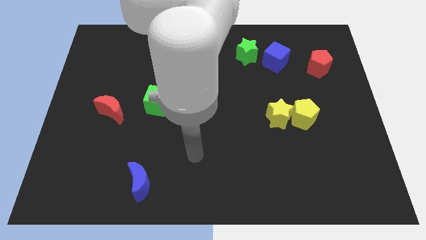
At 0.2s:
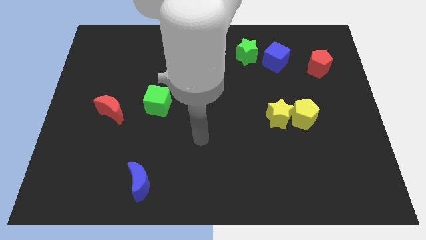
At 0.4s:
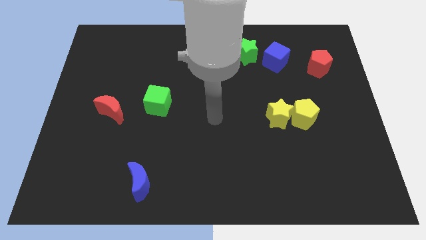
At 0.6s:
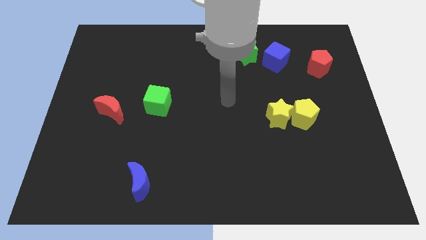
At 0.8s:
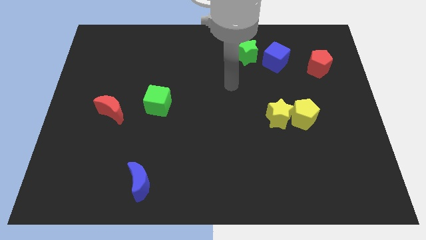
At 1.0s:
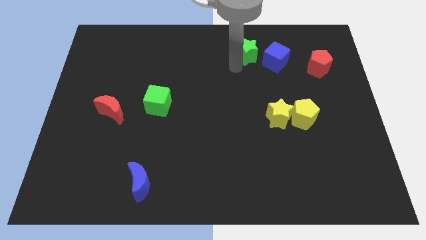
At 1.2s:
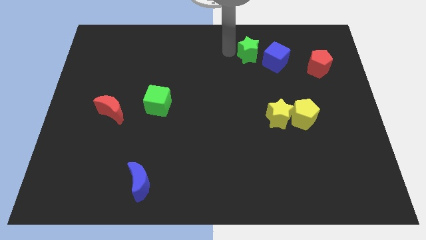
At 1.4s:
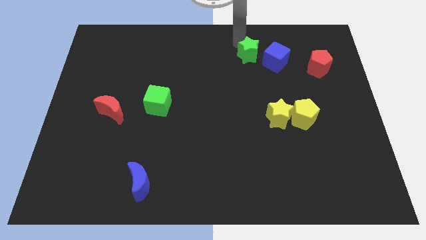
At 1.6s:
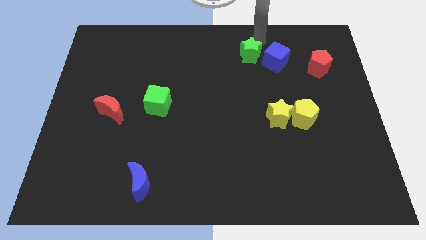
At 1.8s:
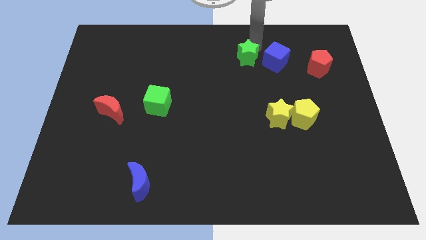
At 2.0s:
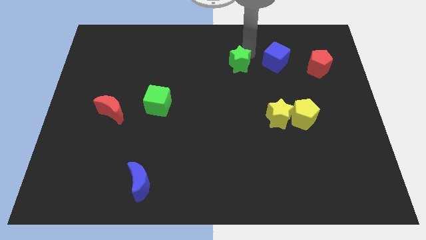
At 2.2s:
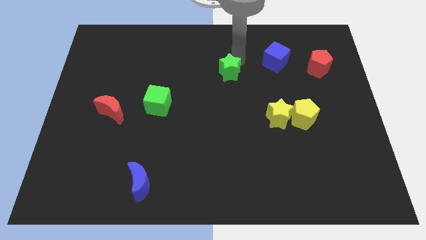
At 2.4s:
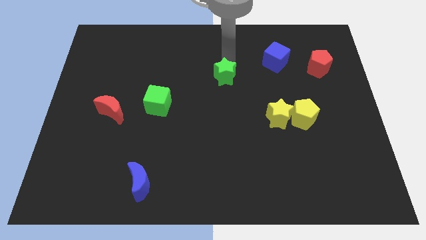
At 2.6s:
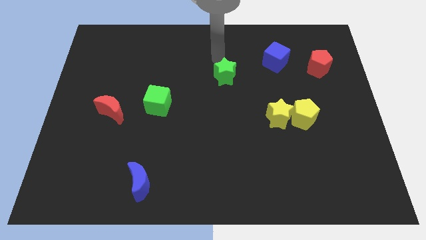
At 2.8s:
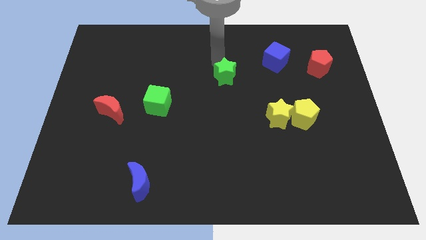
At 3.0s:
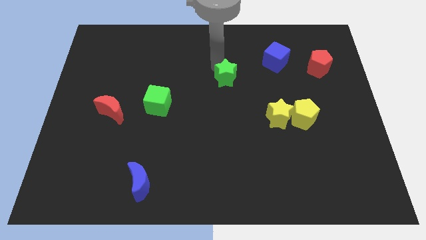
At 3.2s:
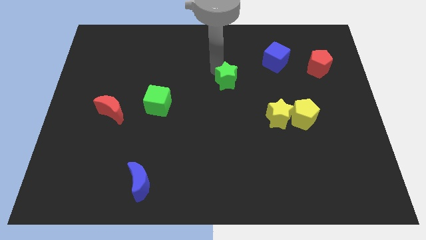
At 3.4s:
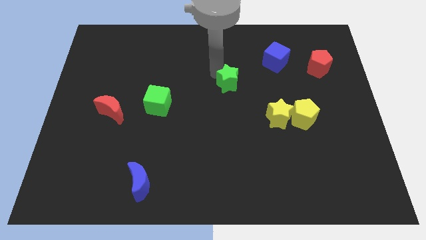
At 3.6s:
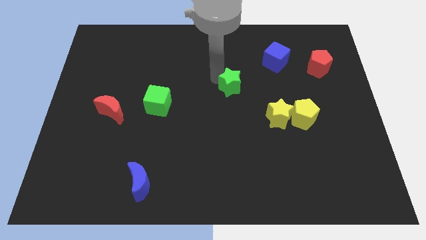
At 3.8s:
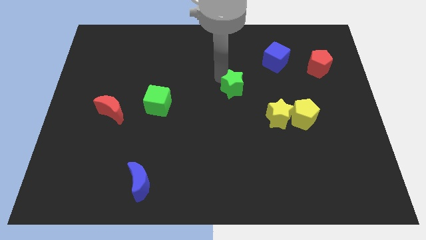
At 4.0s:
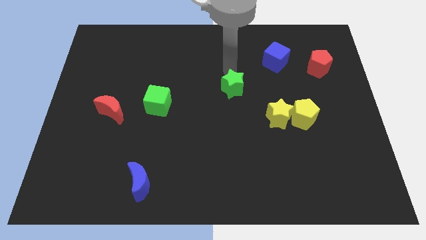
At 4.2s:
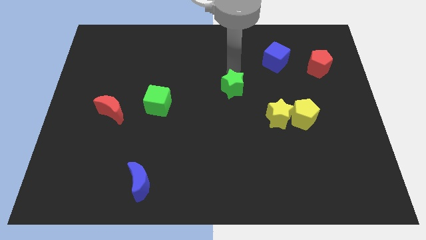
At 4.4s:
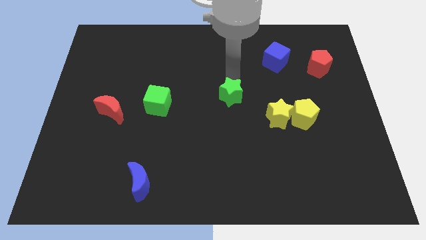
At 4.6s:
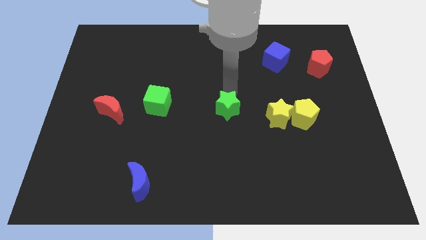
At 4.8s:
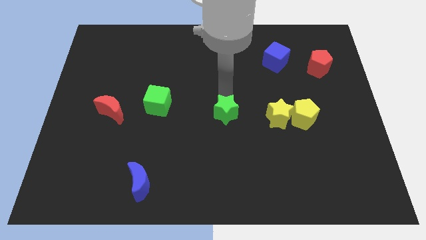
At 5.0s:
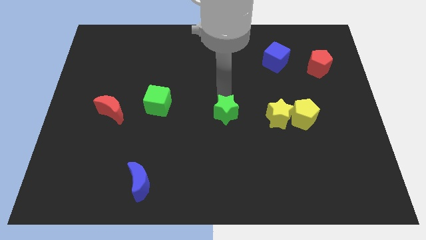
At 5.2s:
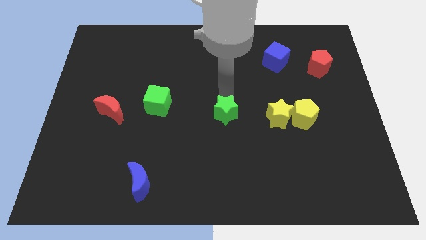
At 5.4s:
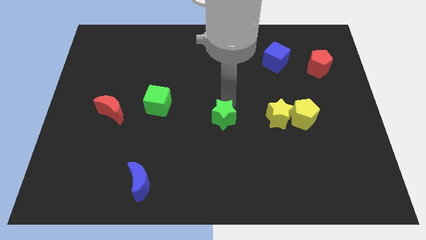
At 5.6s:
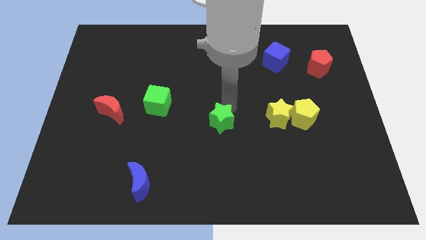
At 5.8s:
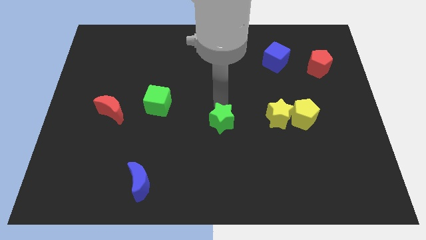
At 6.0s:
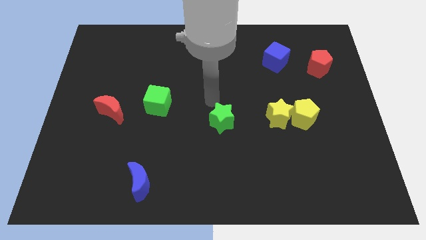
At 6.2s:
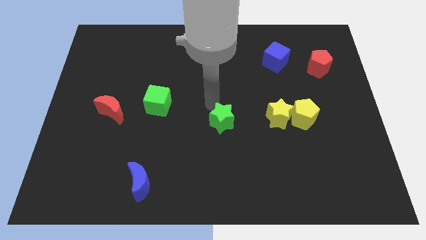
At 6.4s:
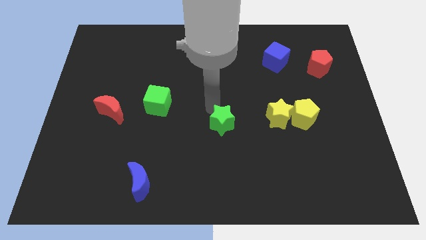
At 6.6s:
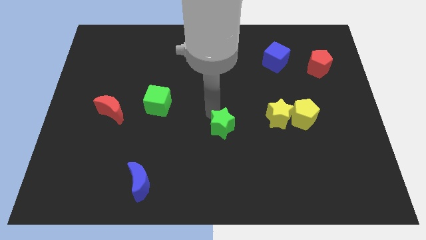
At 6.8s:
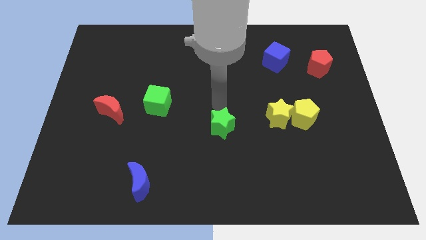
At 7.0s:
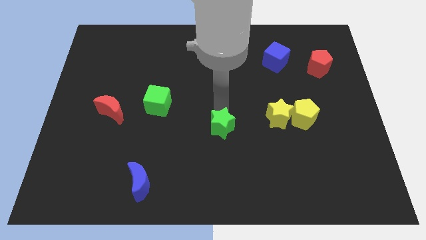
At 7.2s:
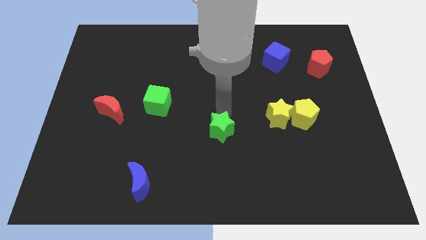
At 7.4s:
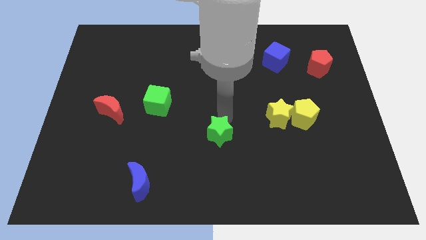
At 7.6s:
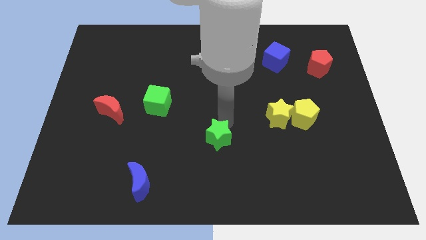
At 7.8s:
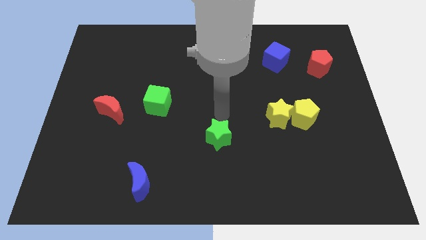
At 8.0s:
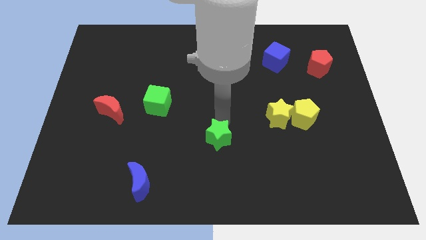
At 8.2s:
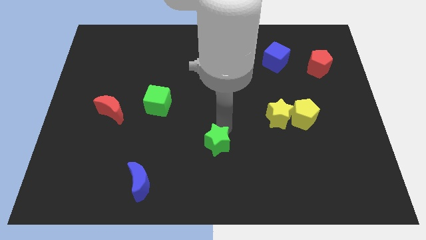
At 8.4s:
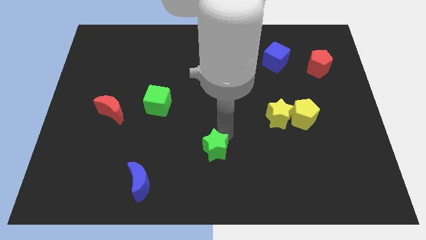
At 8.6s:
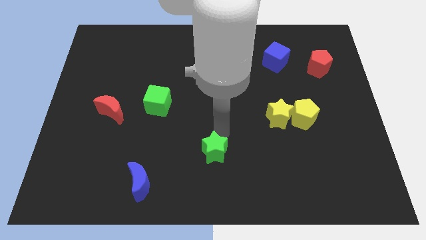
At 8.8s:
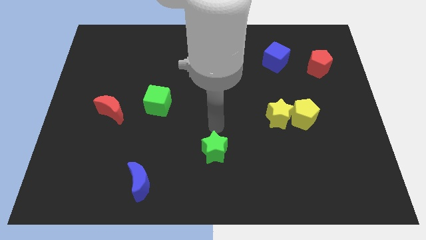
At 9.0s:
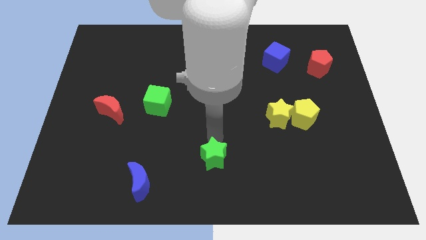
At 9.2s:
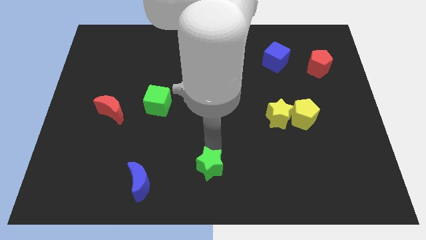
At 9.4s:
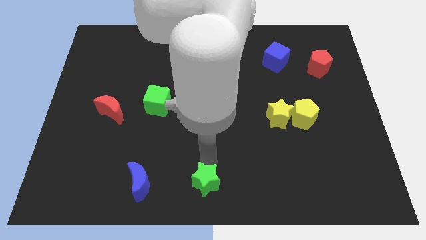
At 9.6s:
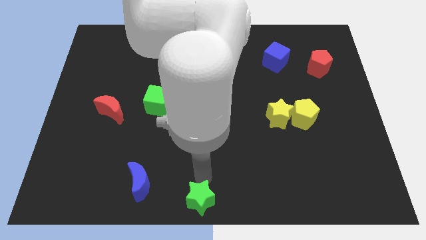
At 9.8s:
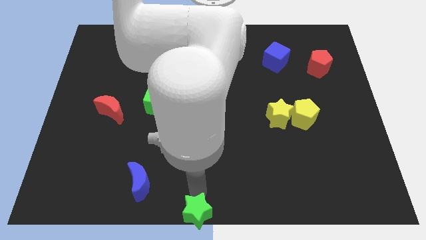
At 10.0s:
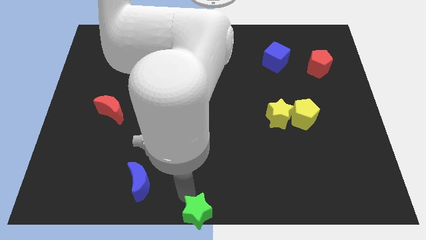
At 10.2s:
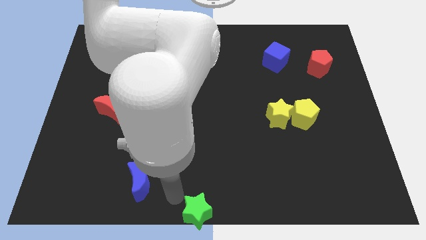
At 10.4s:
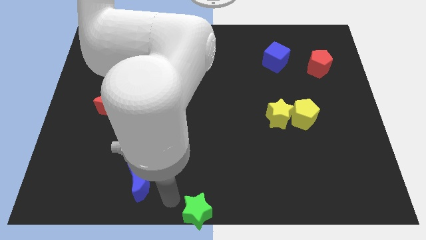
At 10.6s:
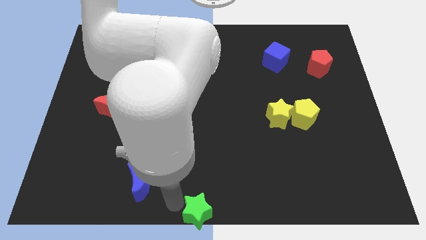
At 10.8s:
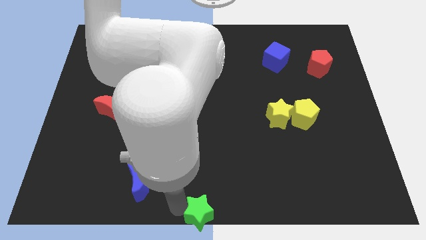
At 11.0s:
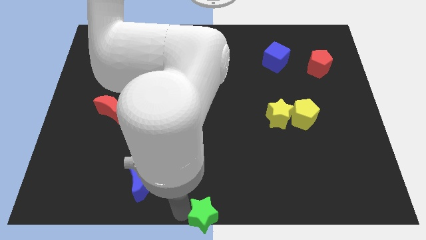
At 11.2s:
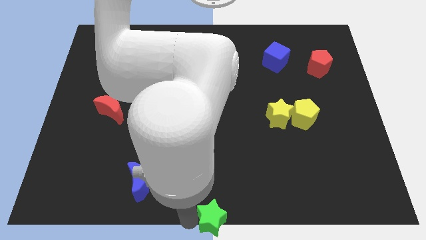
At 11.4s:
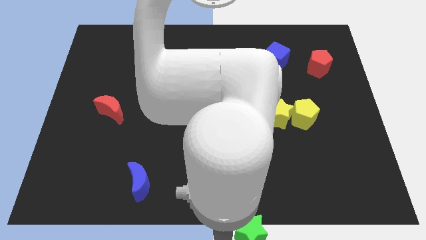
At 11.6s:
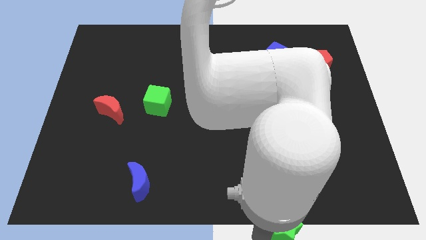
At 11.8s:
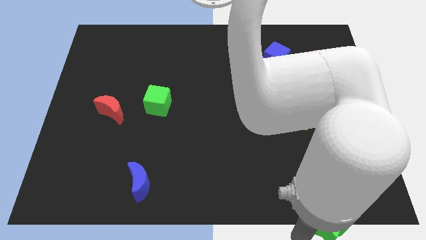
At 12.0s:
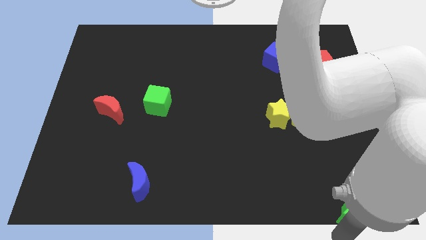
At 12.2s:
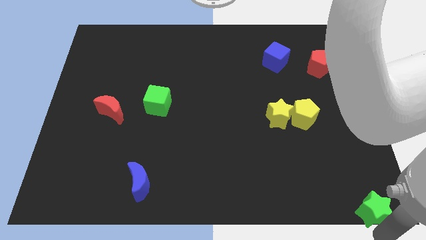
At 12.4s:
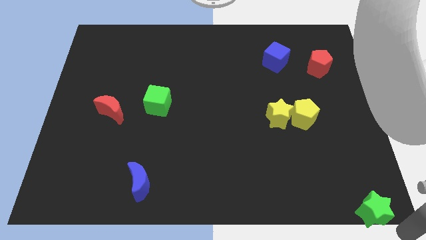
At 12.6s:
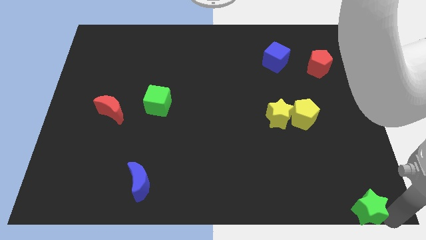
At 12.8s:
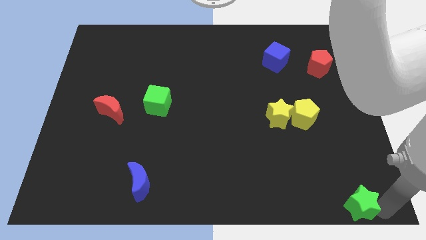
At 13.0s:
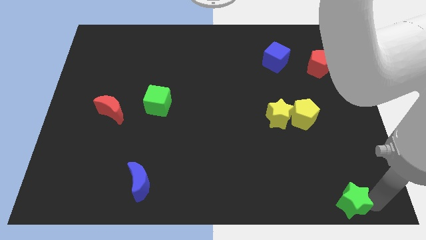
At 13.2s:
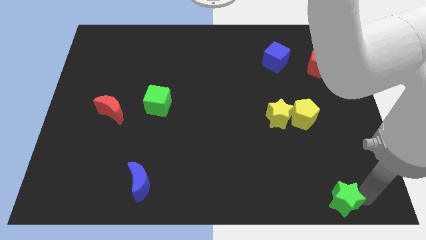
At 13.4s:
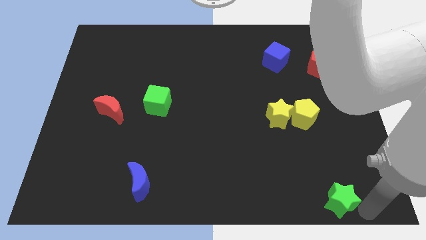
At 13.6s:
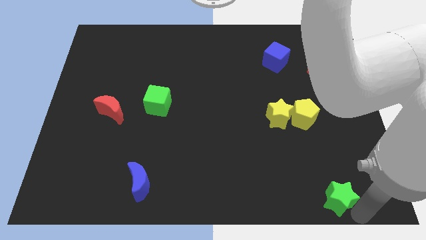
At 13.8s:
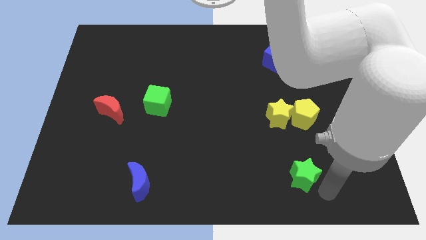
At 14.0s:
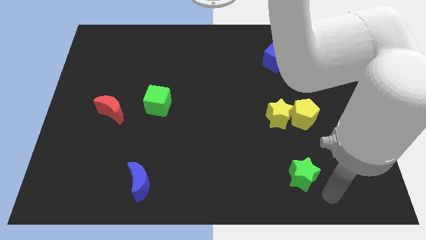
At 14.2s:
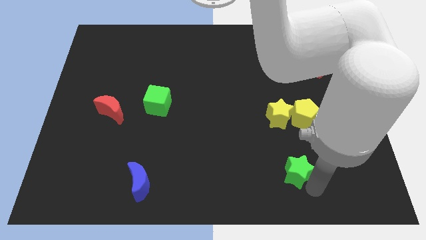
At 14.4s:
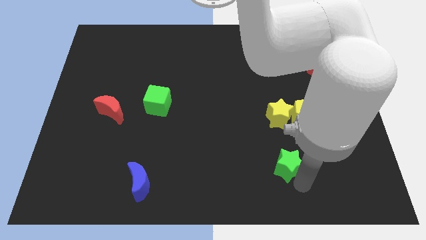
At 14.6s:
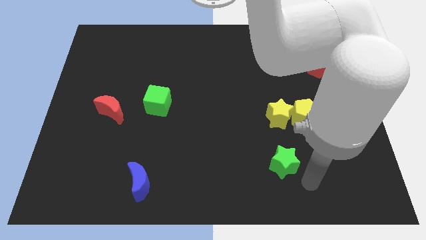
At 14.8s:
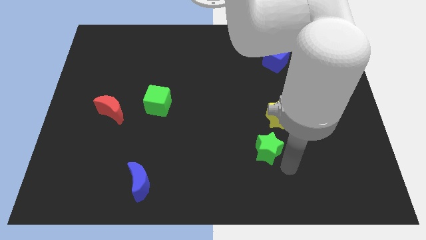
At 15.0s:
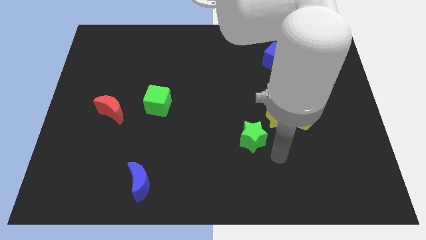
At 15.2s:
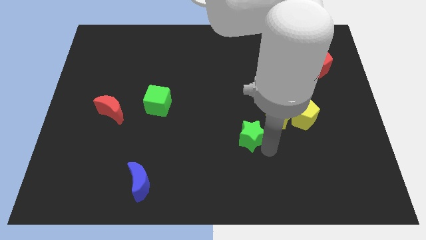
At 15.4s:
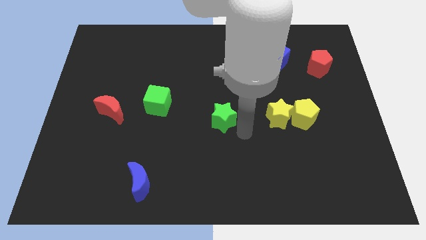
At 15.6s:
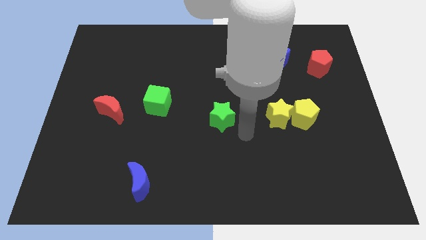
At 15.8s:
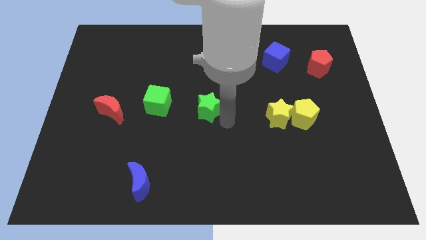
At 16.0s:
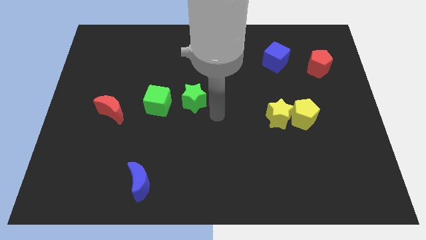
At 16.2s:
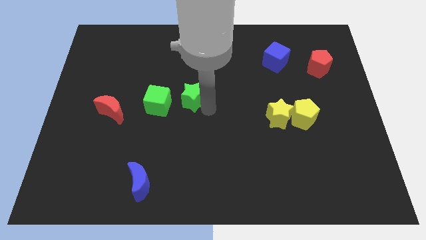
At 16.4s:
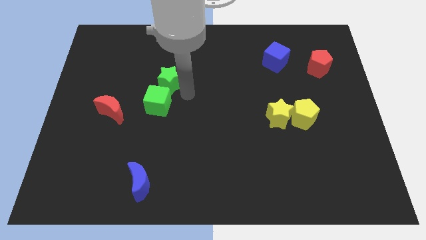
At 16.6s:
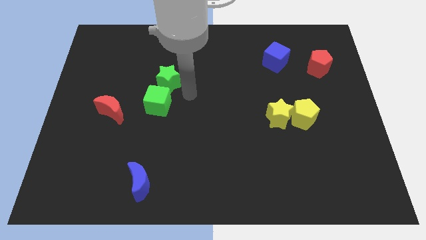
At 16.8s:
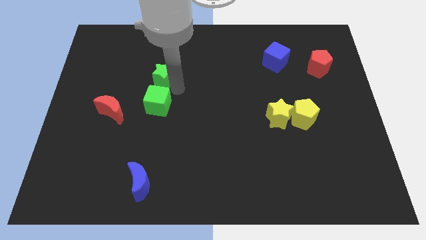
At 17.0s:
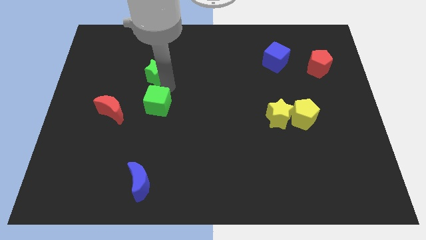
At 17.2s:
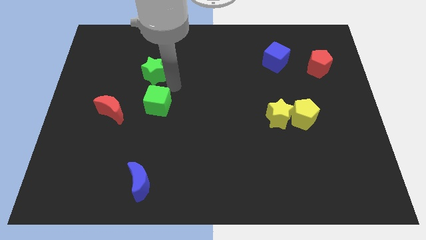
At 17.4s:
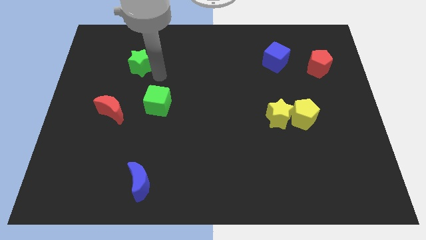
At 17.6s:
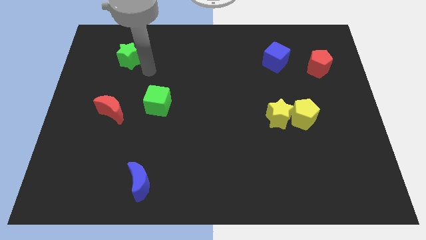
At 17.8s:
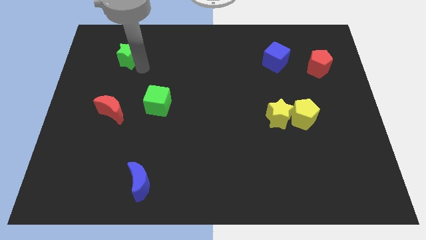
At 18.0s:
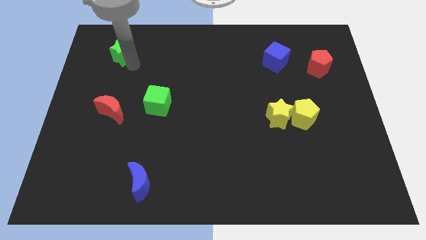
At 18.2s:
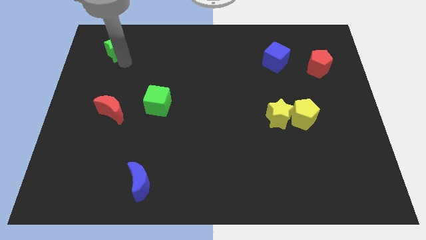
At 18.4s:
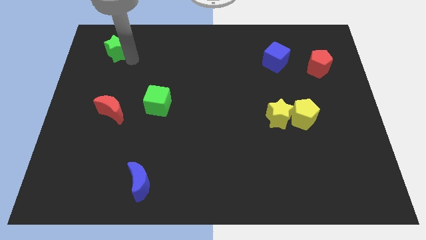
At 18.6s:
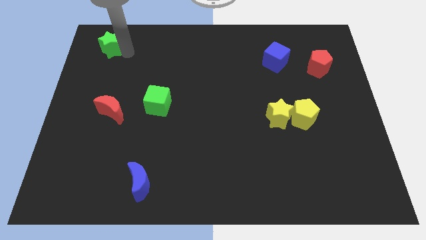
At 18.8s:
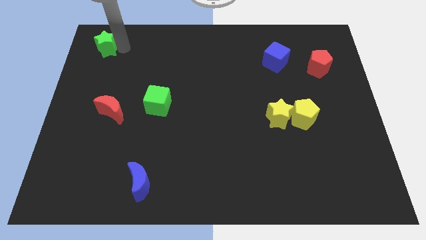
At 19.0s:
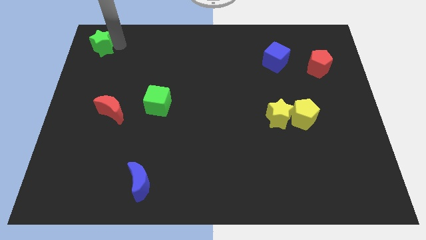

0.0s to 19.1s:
put the green star to the top left corner
